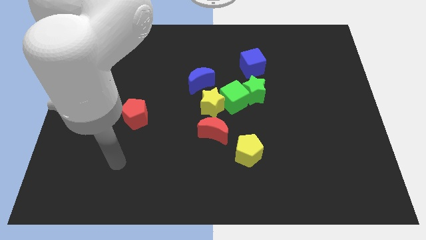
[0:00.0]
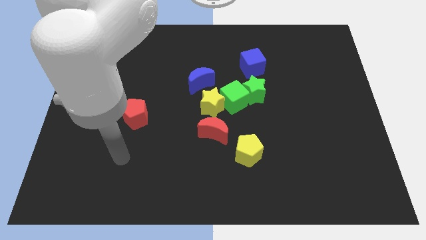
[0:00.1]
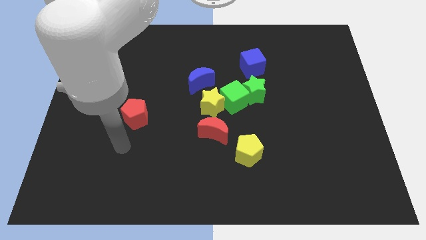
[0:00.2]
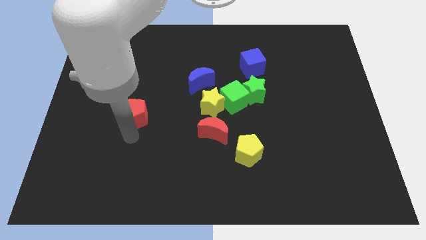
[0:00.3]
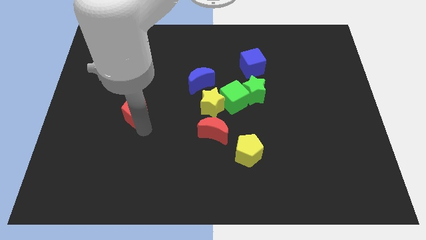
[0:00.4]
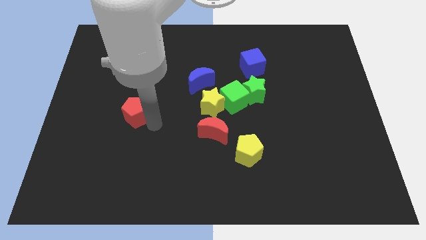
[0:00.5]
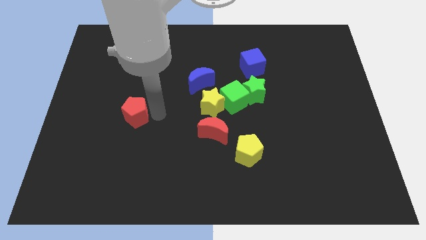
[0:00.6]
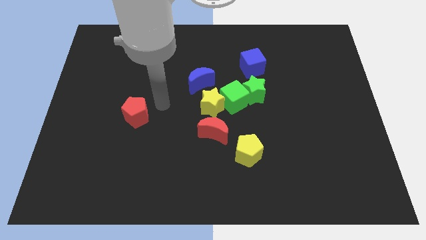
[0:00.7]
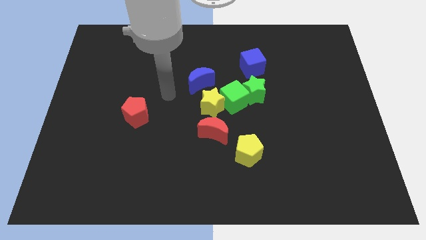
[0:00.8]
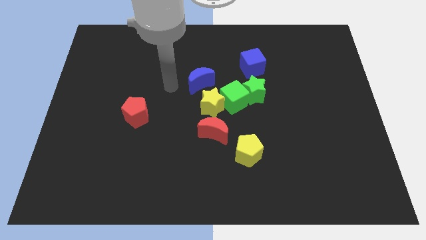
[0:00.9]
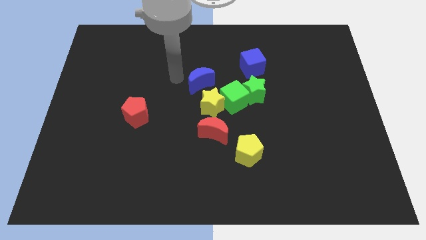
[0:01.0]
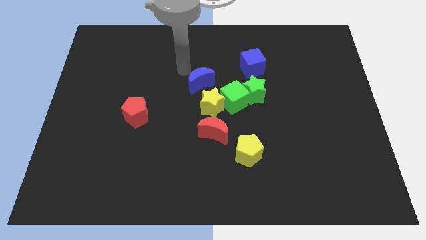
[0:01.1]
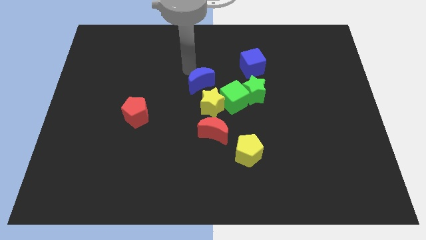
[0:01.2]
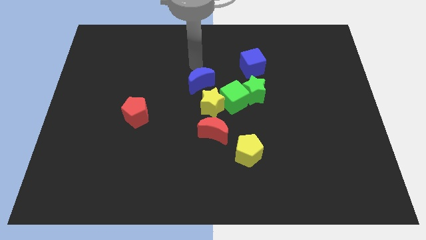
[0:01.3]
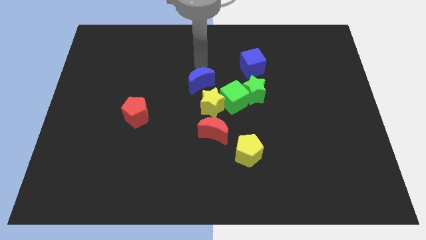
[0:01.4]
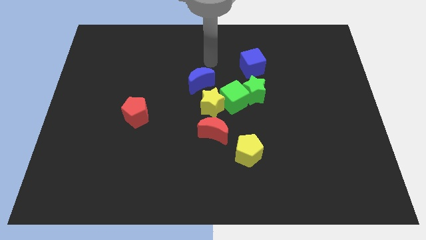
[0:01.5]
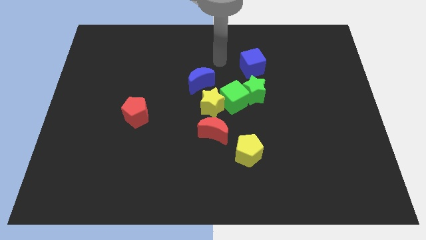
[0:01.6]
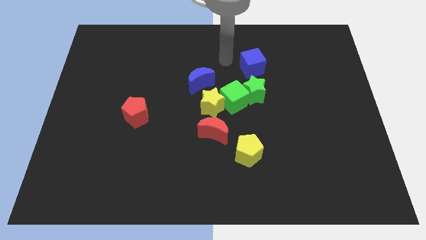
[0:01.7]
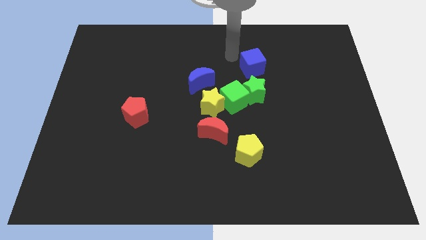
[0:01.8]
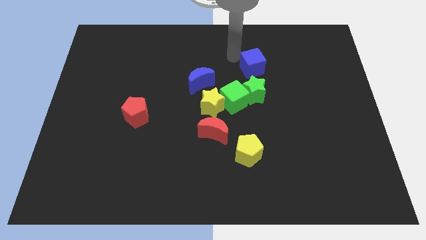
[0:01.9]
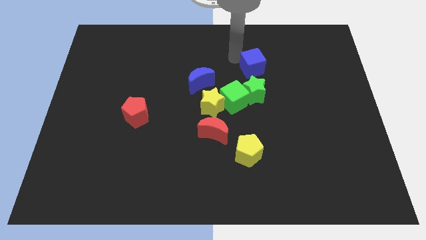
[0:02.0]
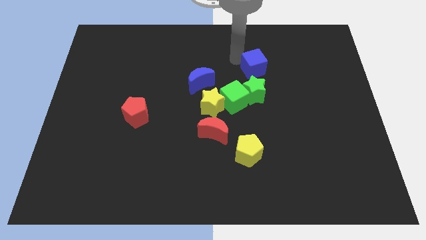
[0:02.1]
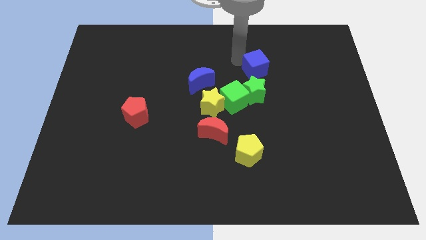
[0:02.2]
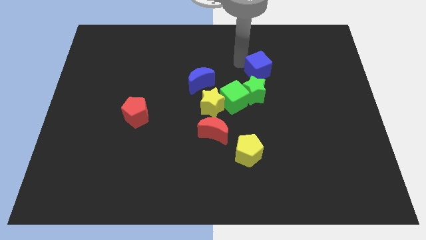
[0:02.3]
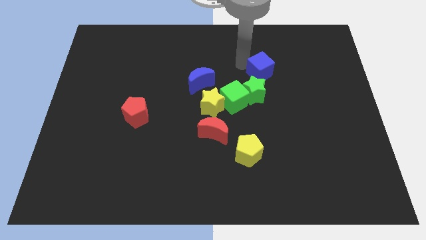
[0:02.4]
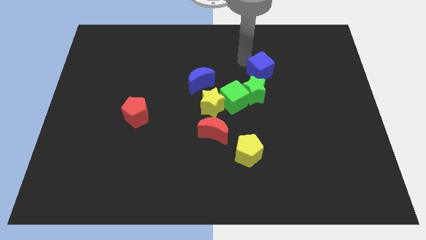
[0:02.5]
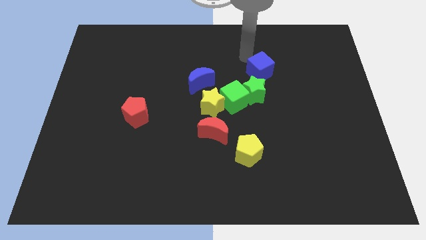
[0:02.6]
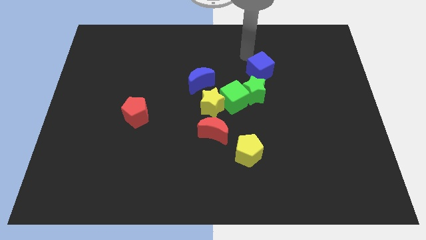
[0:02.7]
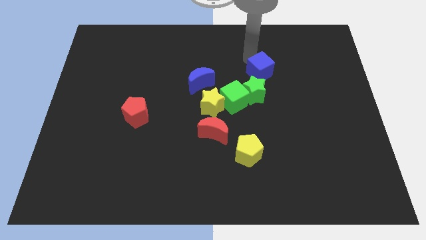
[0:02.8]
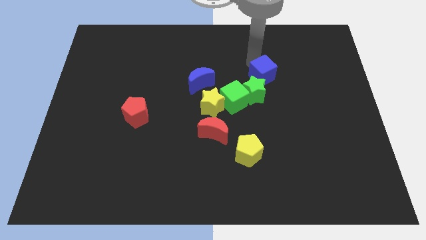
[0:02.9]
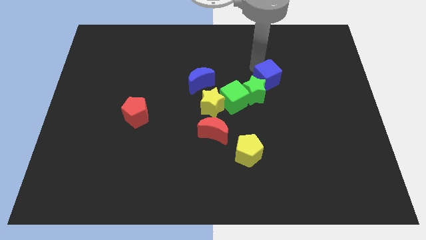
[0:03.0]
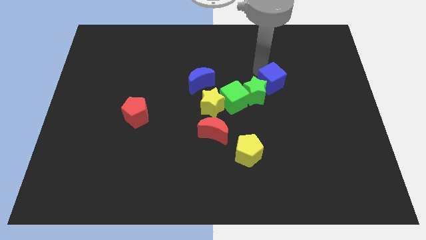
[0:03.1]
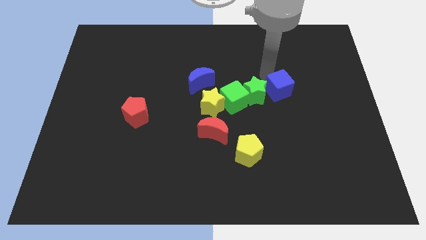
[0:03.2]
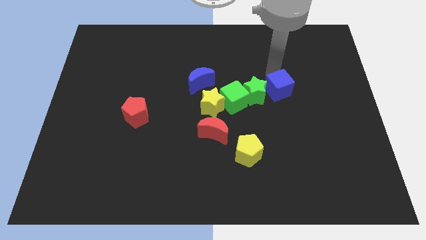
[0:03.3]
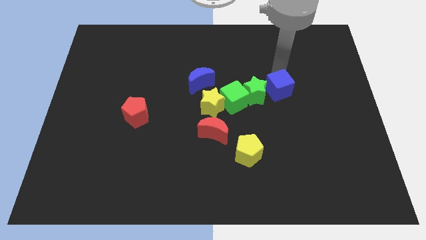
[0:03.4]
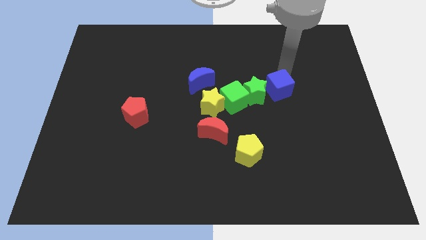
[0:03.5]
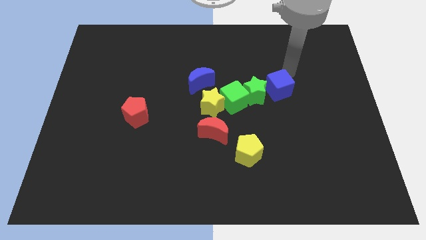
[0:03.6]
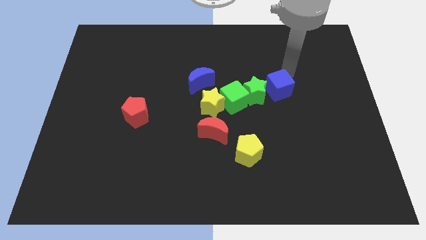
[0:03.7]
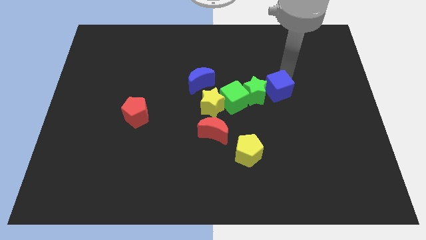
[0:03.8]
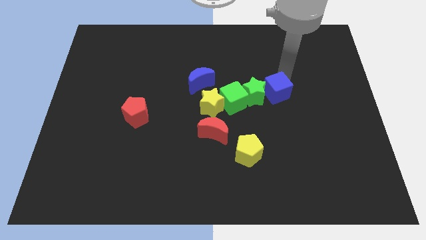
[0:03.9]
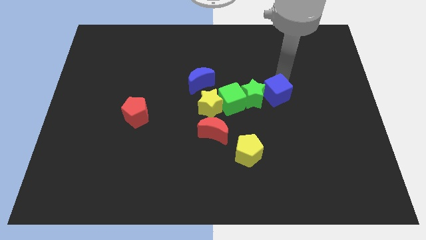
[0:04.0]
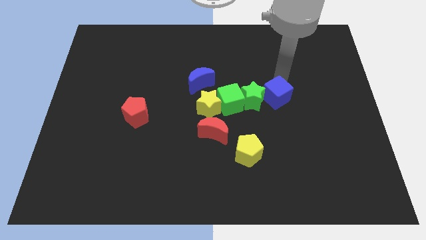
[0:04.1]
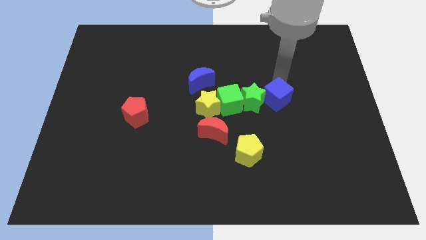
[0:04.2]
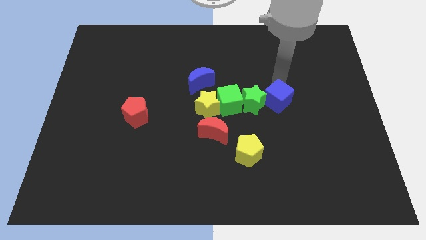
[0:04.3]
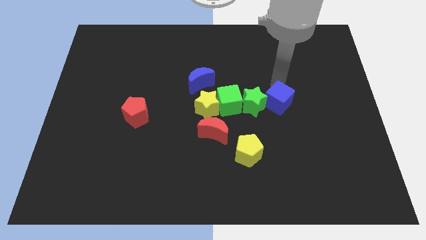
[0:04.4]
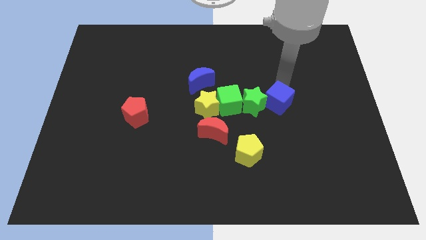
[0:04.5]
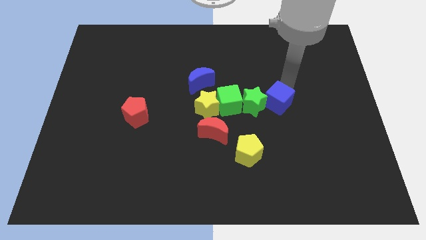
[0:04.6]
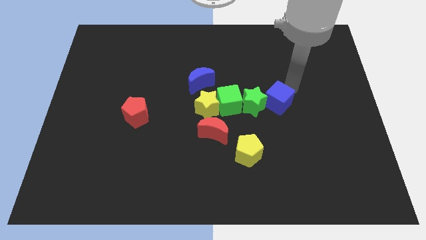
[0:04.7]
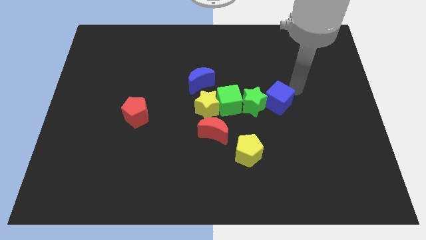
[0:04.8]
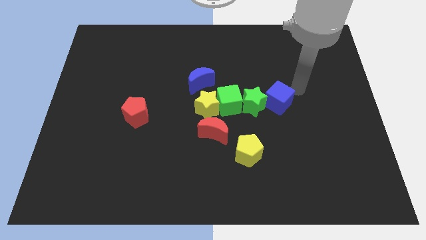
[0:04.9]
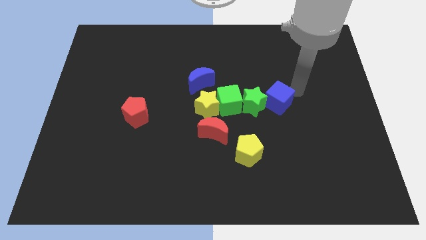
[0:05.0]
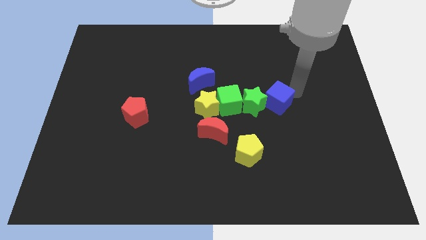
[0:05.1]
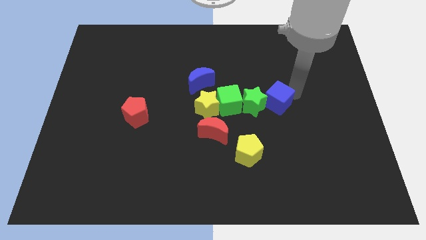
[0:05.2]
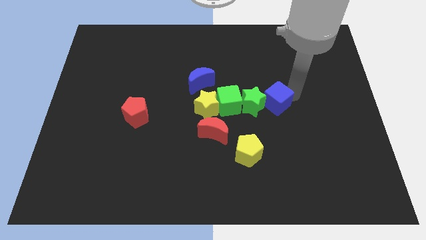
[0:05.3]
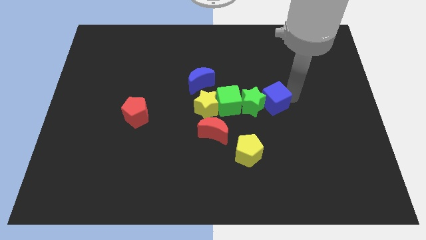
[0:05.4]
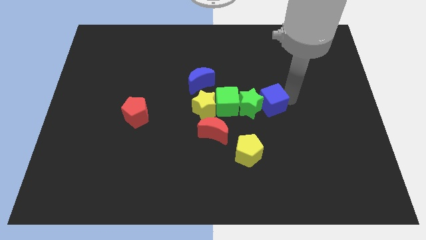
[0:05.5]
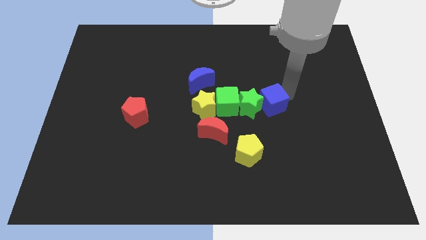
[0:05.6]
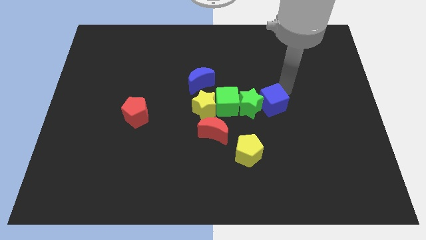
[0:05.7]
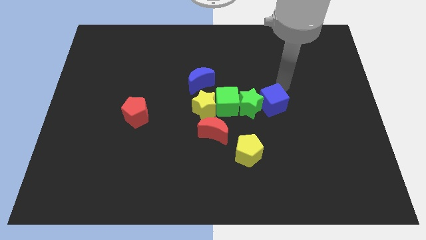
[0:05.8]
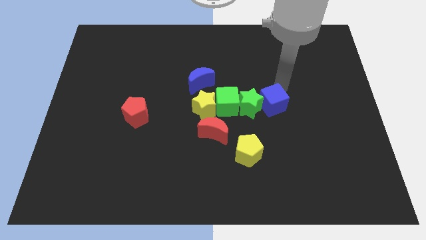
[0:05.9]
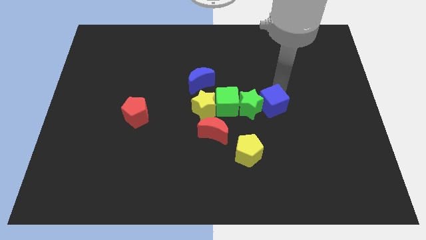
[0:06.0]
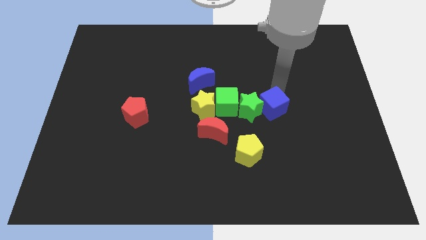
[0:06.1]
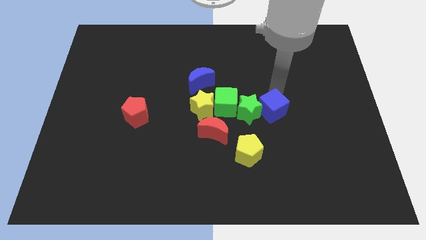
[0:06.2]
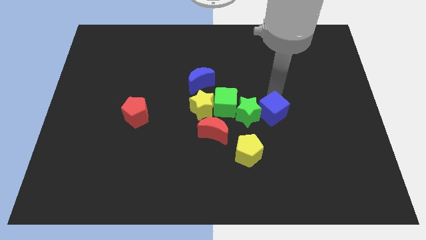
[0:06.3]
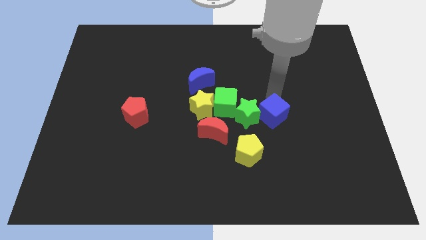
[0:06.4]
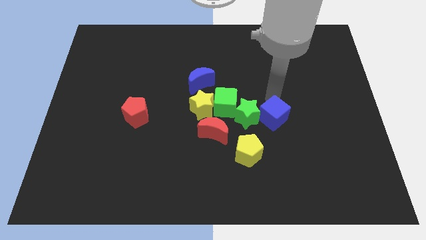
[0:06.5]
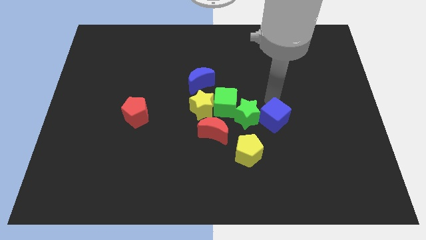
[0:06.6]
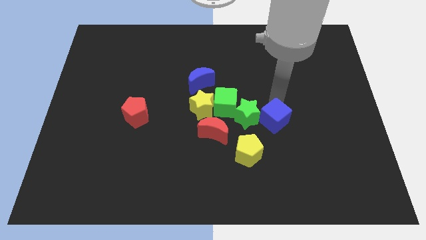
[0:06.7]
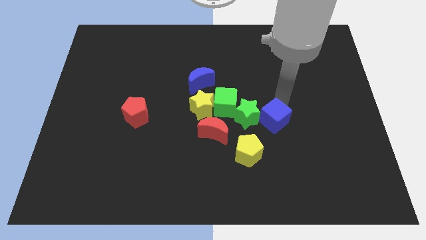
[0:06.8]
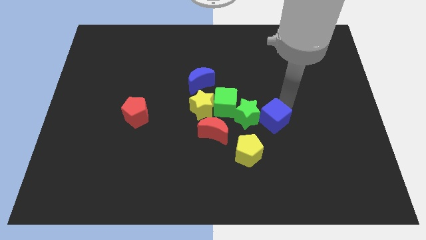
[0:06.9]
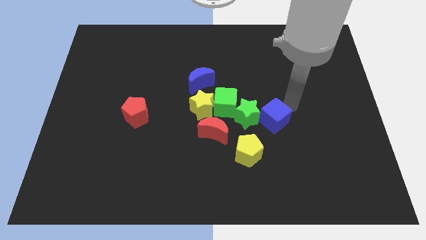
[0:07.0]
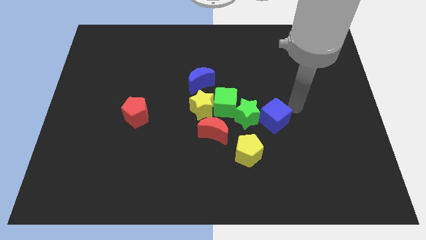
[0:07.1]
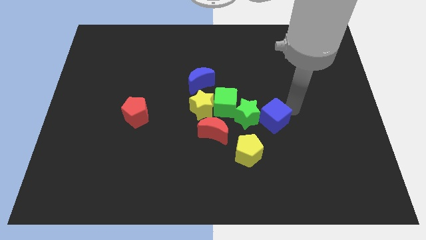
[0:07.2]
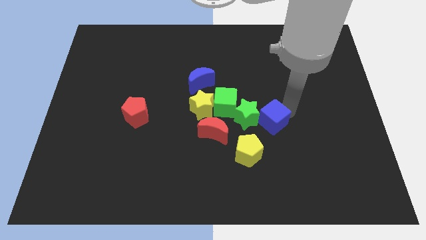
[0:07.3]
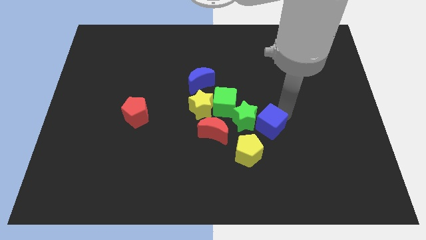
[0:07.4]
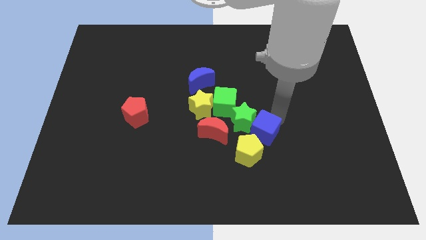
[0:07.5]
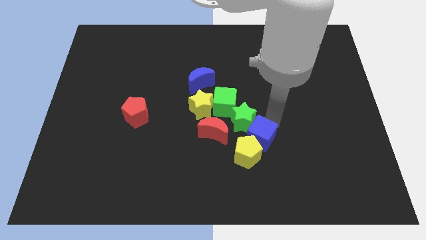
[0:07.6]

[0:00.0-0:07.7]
slide the blue cube to the yellow pentagon
